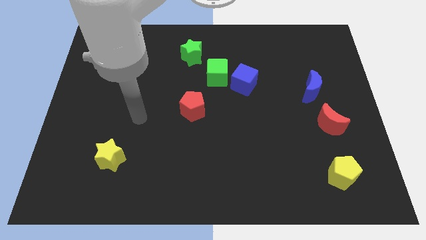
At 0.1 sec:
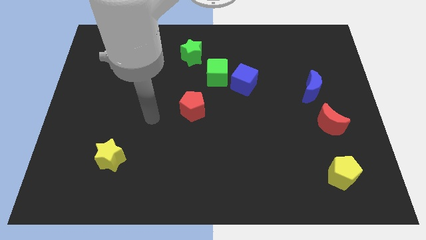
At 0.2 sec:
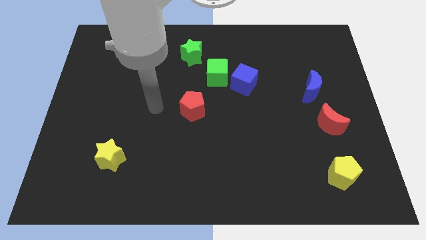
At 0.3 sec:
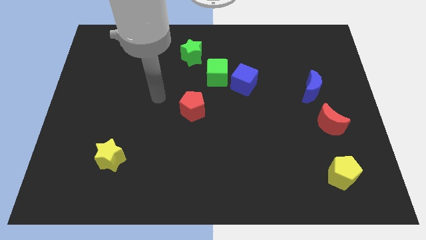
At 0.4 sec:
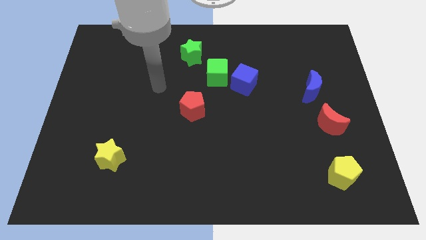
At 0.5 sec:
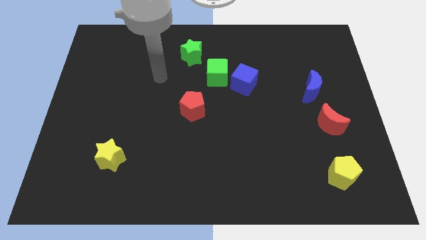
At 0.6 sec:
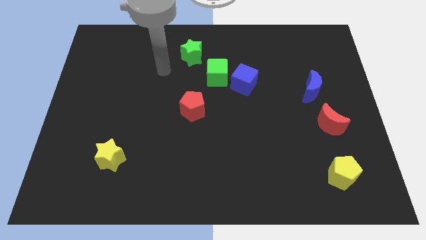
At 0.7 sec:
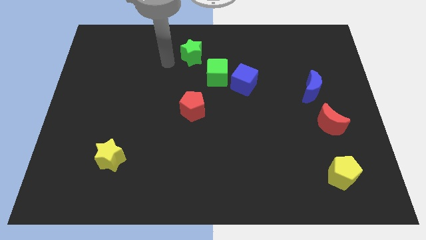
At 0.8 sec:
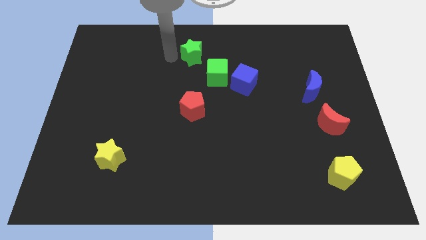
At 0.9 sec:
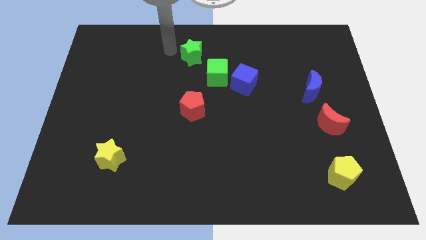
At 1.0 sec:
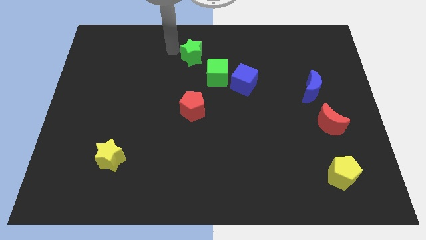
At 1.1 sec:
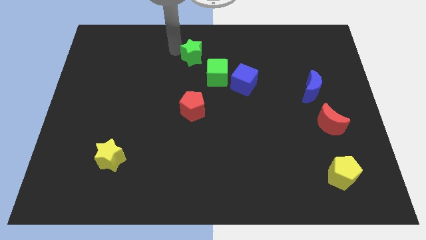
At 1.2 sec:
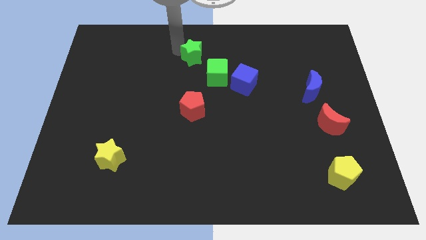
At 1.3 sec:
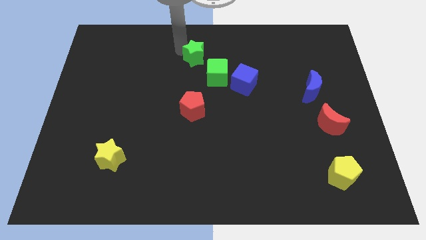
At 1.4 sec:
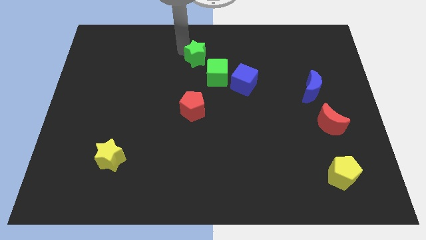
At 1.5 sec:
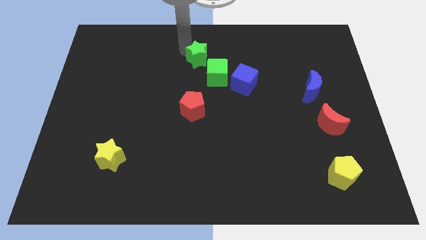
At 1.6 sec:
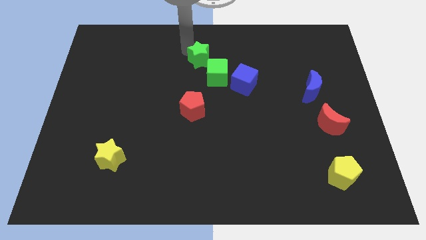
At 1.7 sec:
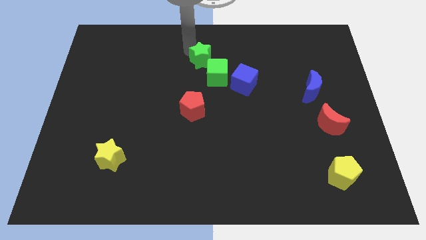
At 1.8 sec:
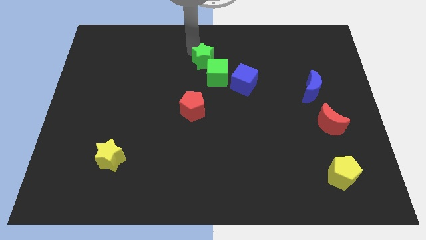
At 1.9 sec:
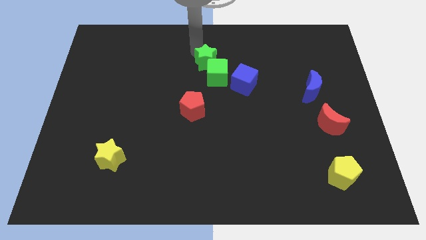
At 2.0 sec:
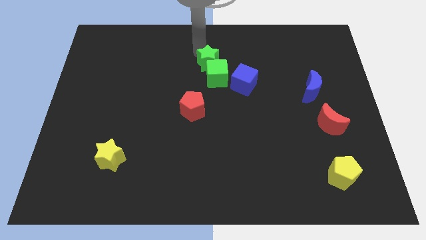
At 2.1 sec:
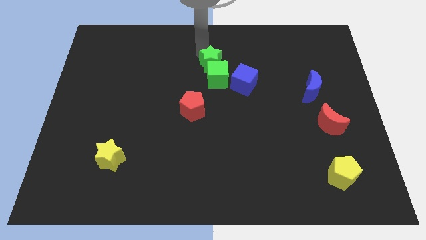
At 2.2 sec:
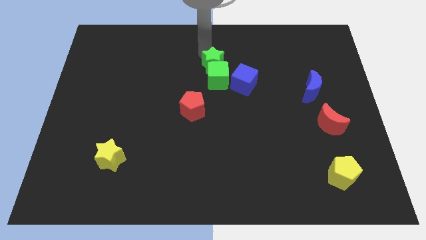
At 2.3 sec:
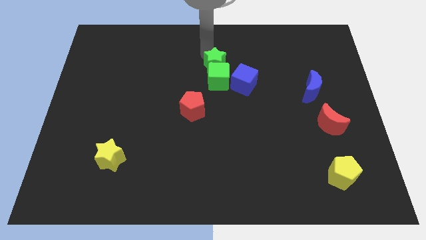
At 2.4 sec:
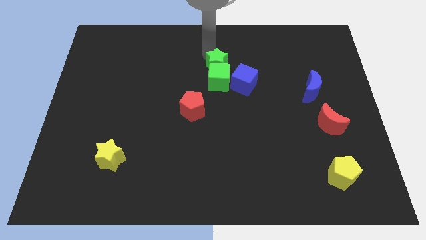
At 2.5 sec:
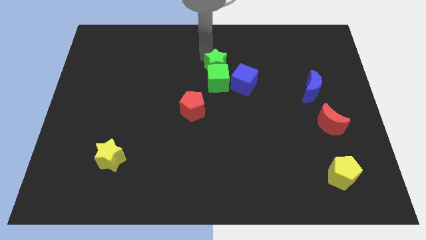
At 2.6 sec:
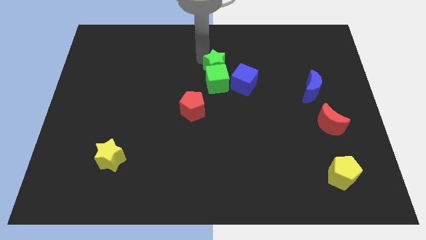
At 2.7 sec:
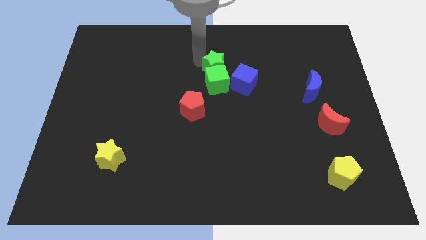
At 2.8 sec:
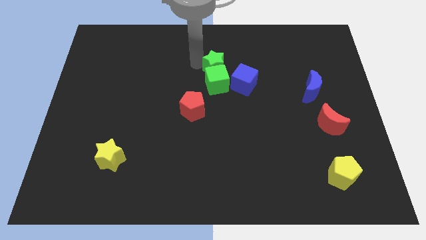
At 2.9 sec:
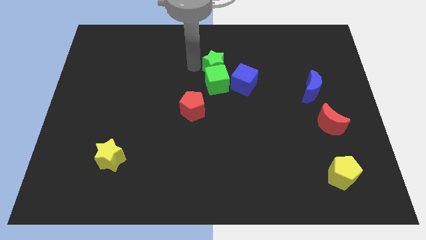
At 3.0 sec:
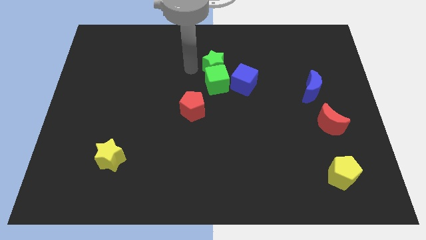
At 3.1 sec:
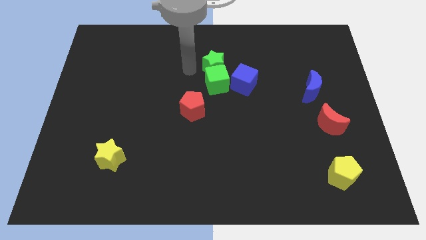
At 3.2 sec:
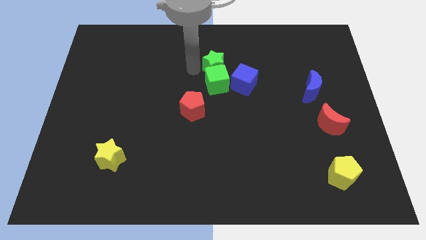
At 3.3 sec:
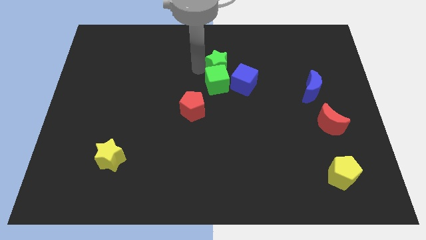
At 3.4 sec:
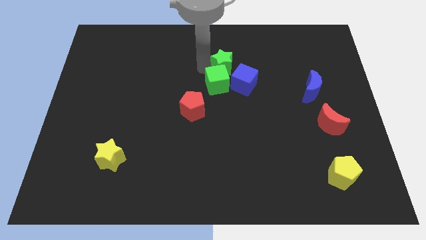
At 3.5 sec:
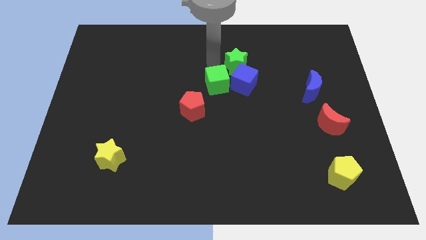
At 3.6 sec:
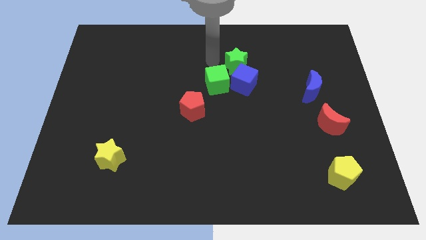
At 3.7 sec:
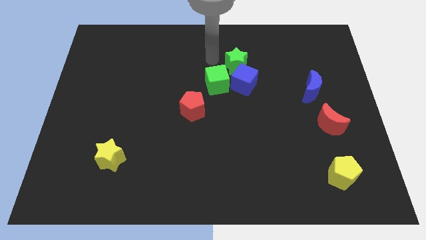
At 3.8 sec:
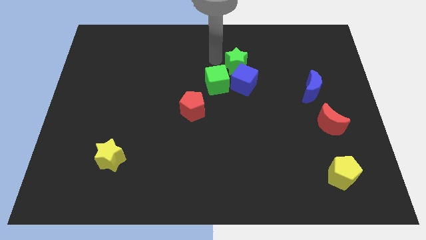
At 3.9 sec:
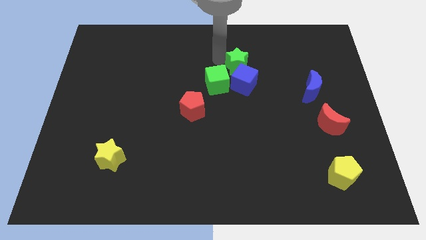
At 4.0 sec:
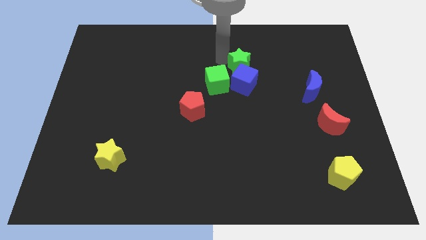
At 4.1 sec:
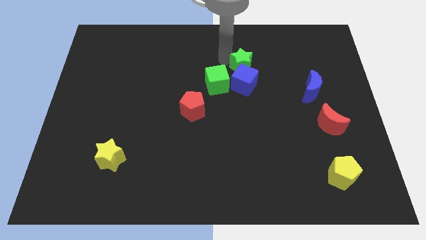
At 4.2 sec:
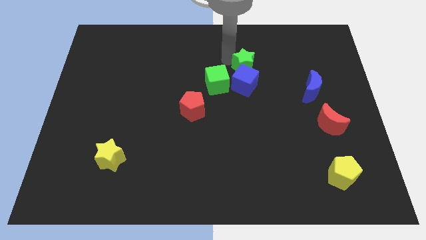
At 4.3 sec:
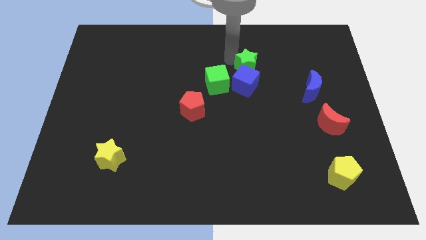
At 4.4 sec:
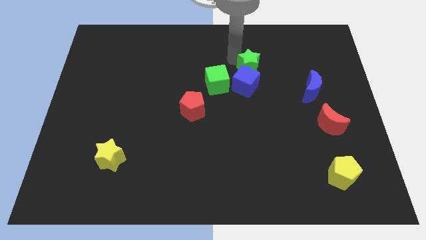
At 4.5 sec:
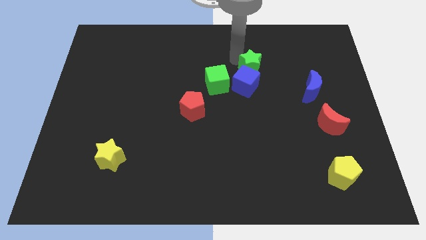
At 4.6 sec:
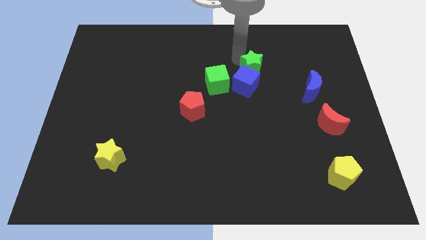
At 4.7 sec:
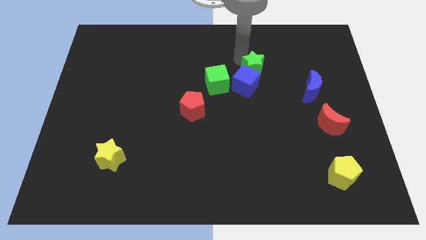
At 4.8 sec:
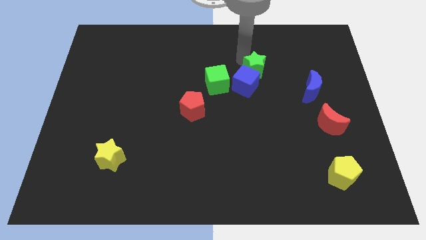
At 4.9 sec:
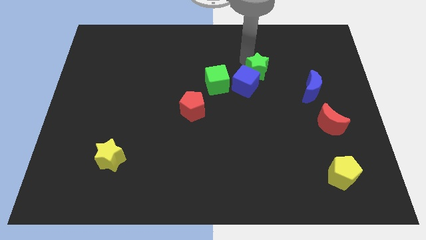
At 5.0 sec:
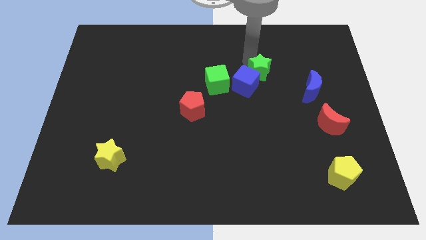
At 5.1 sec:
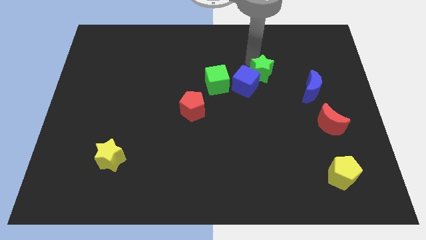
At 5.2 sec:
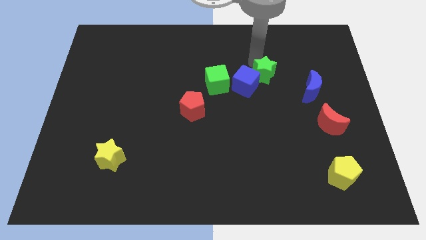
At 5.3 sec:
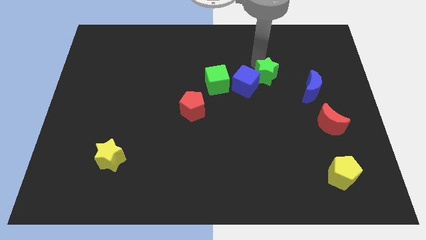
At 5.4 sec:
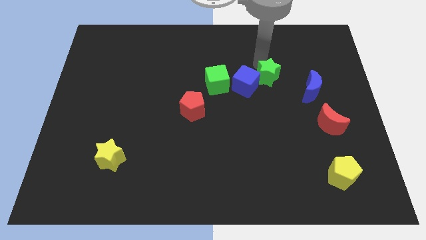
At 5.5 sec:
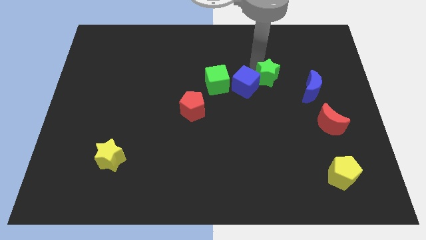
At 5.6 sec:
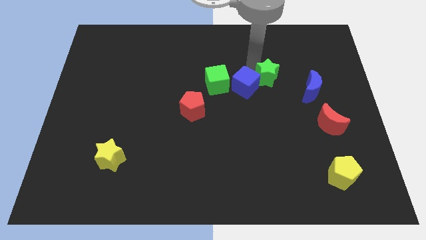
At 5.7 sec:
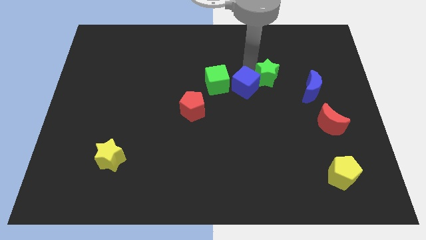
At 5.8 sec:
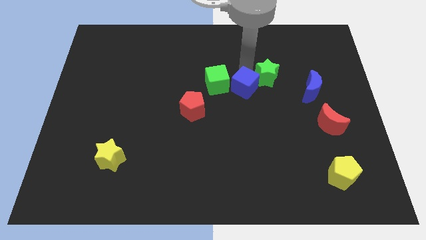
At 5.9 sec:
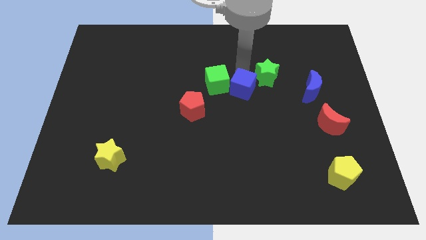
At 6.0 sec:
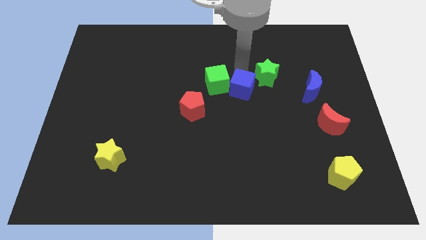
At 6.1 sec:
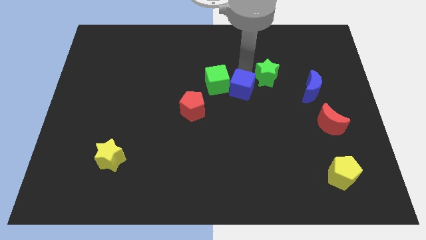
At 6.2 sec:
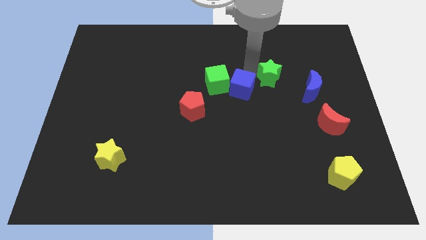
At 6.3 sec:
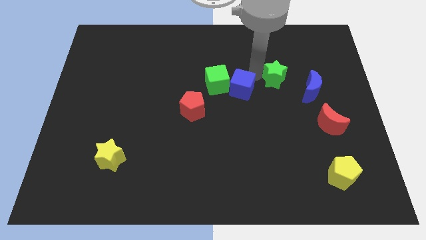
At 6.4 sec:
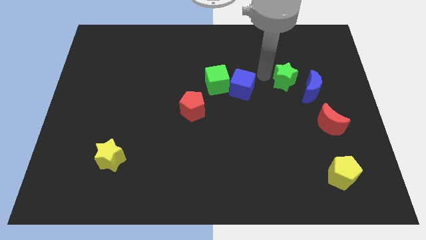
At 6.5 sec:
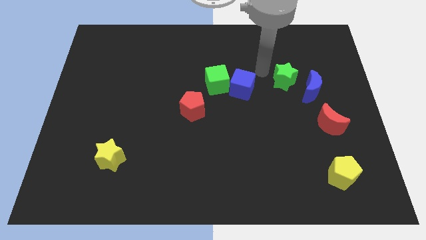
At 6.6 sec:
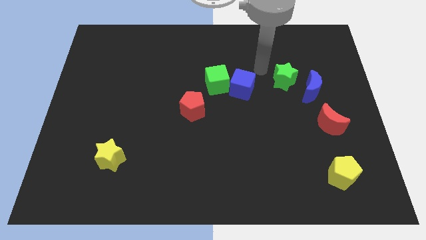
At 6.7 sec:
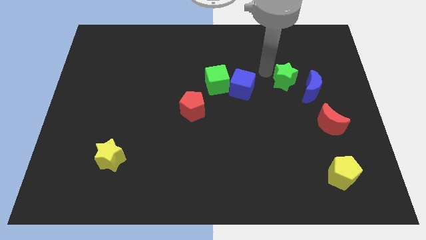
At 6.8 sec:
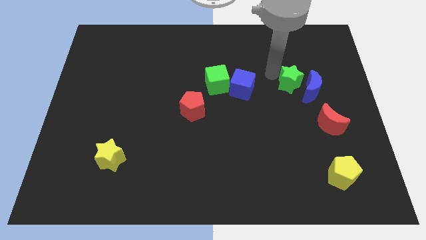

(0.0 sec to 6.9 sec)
slide the green star to the blue moon
